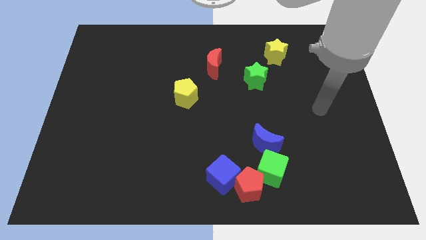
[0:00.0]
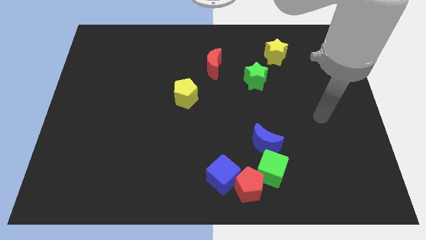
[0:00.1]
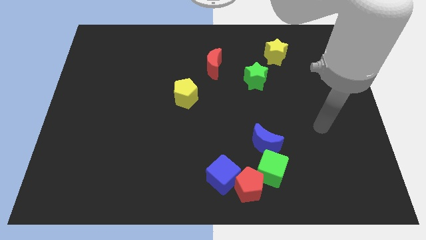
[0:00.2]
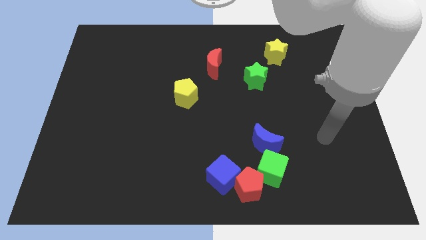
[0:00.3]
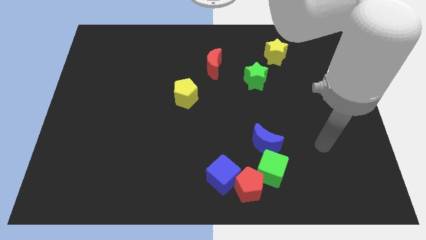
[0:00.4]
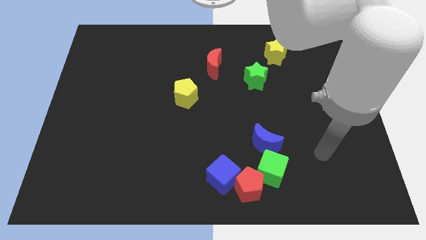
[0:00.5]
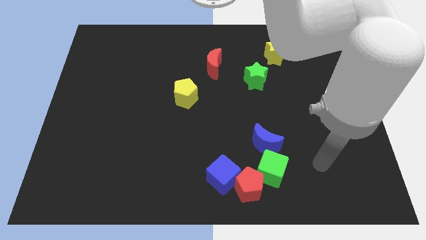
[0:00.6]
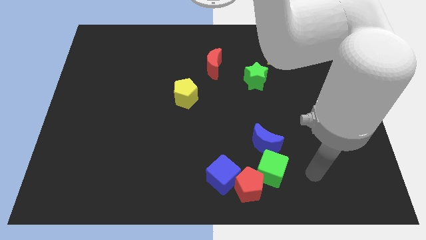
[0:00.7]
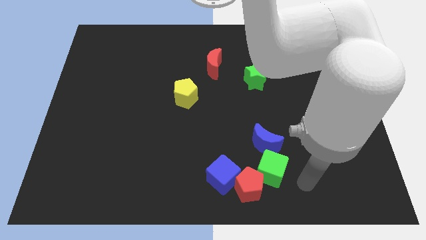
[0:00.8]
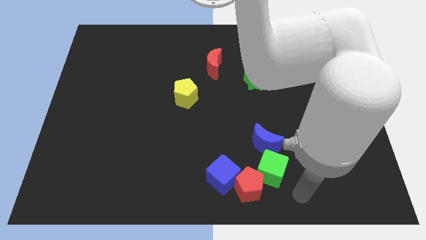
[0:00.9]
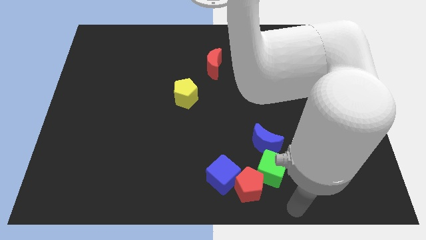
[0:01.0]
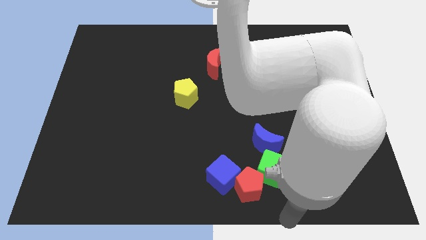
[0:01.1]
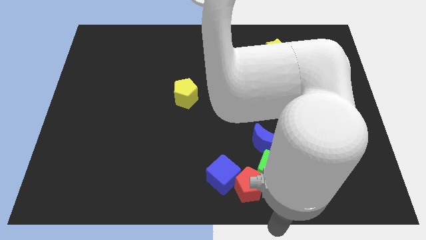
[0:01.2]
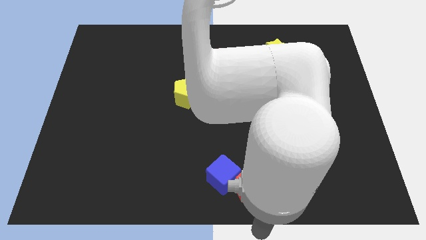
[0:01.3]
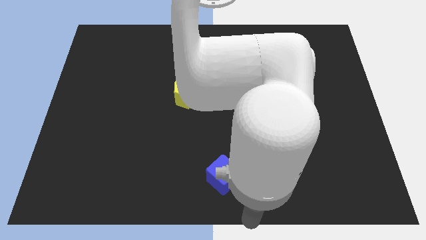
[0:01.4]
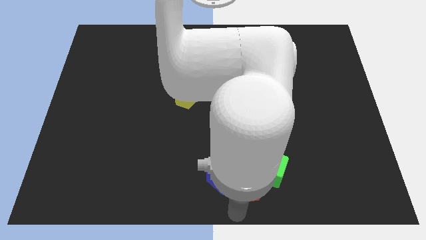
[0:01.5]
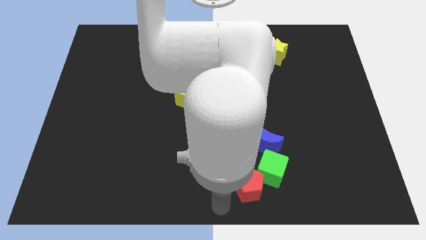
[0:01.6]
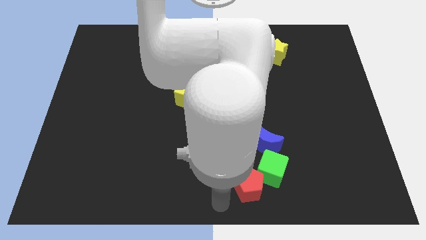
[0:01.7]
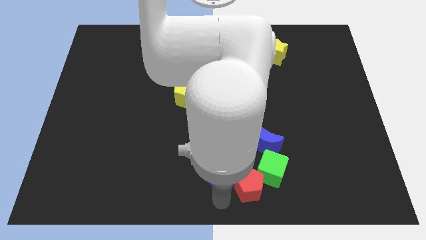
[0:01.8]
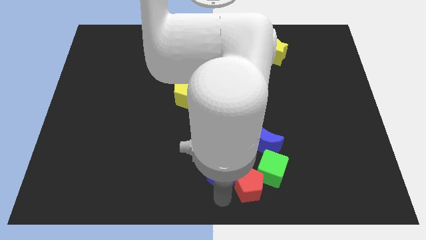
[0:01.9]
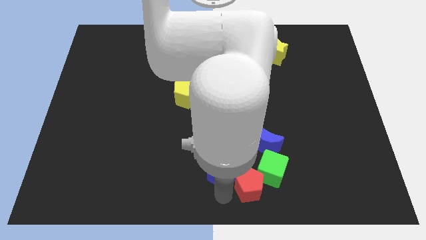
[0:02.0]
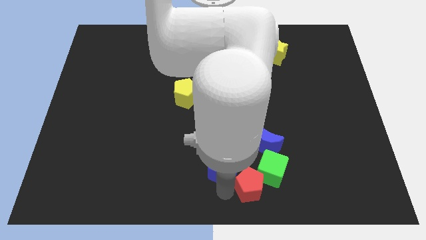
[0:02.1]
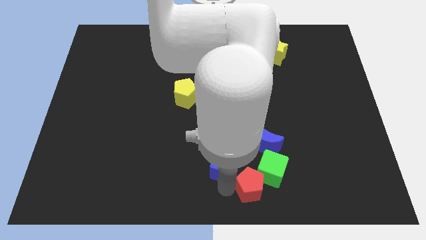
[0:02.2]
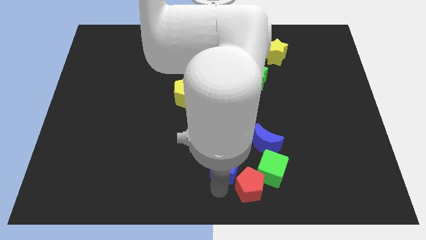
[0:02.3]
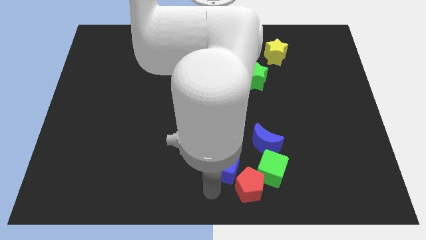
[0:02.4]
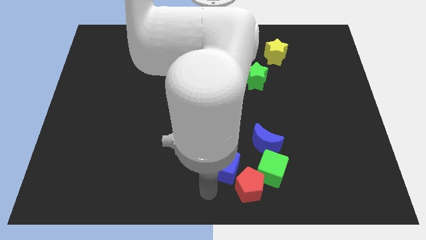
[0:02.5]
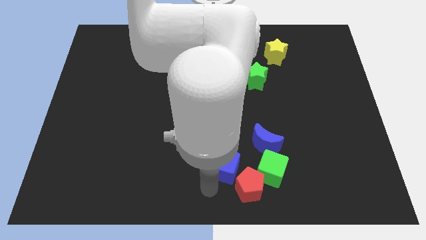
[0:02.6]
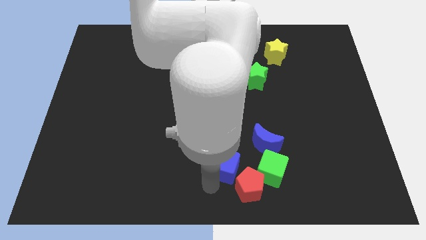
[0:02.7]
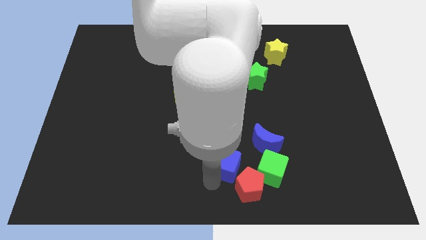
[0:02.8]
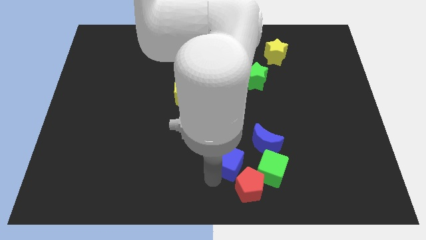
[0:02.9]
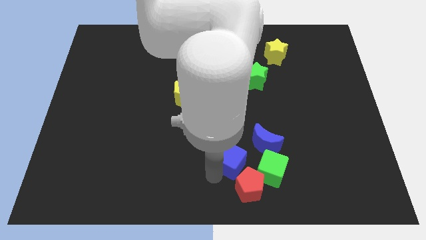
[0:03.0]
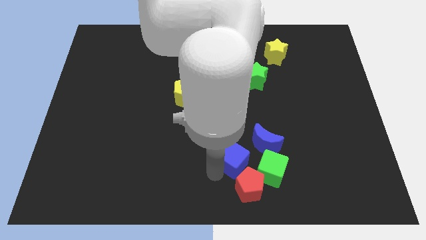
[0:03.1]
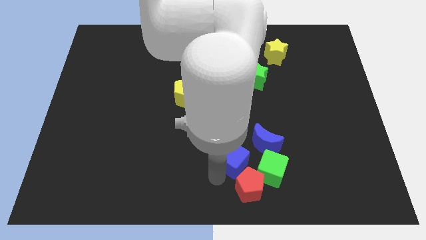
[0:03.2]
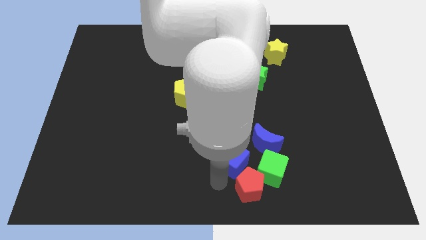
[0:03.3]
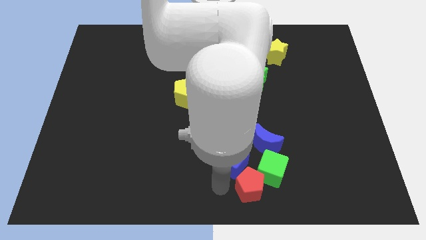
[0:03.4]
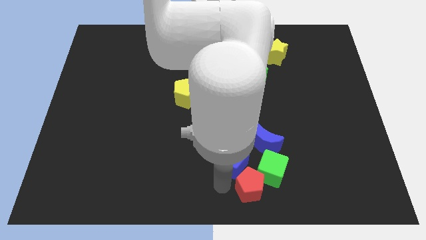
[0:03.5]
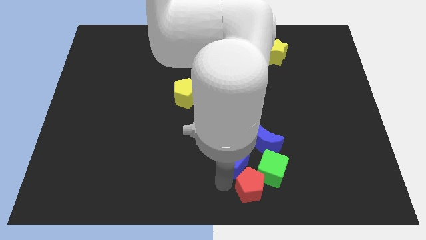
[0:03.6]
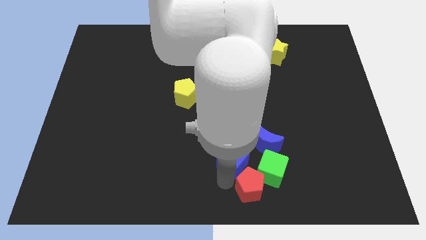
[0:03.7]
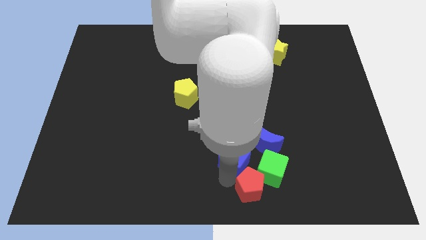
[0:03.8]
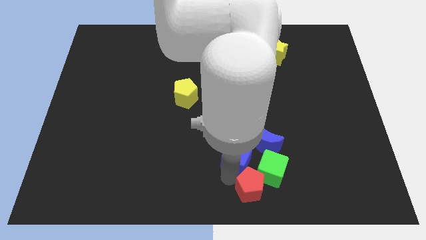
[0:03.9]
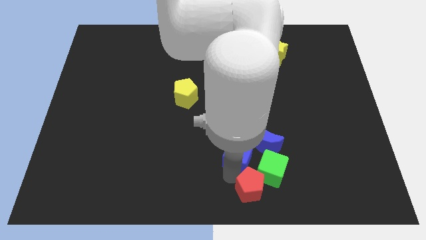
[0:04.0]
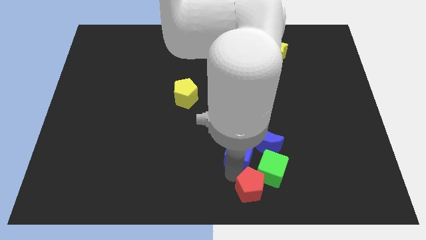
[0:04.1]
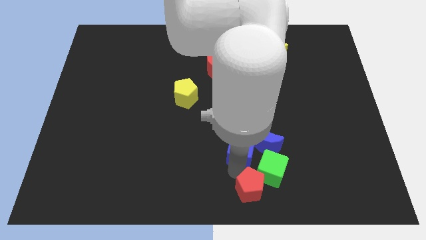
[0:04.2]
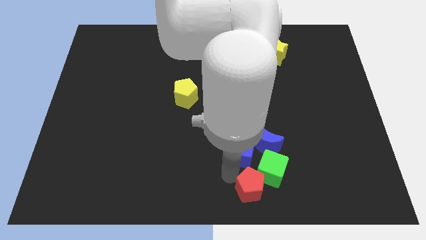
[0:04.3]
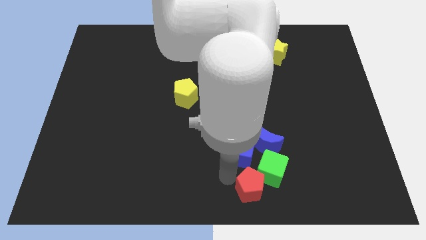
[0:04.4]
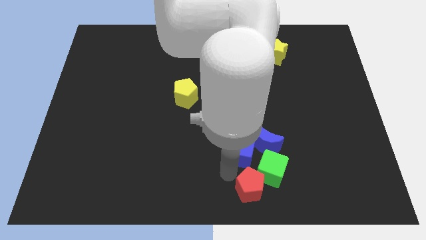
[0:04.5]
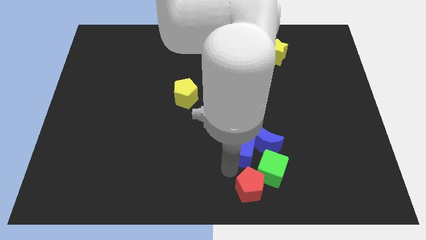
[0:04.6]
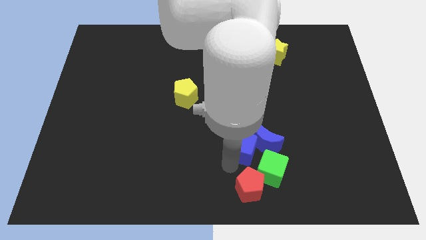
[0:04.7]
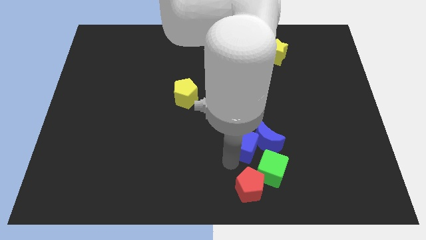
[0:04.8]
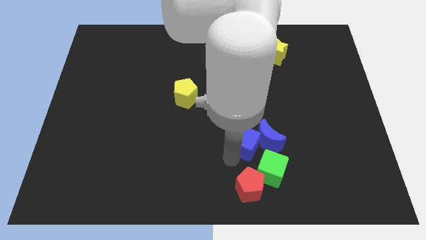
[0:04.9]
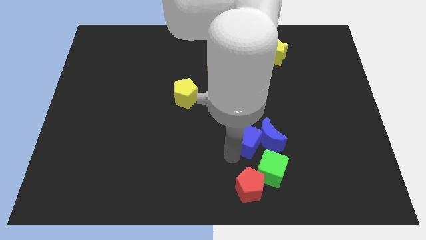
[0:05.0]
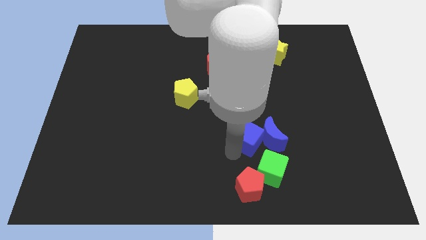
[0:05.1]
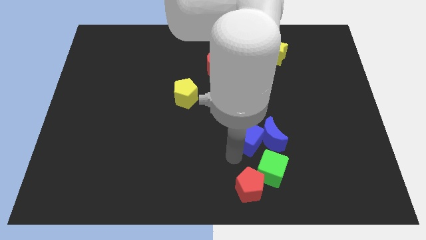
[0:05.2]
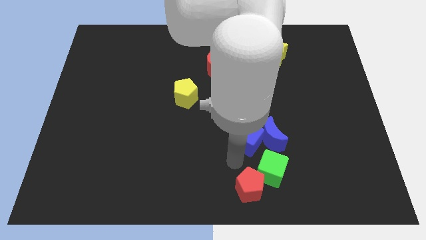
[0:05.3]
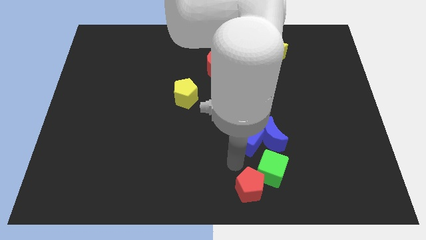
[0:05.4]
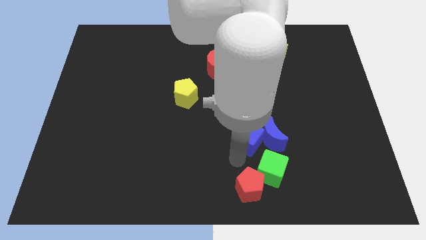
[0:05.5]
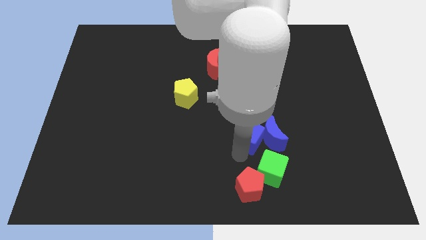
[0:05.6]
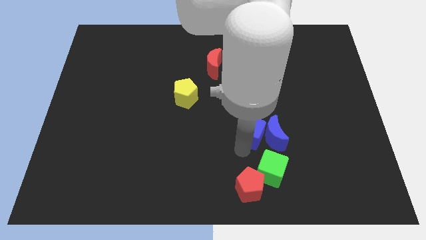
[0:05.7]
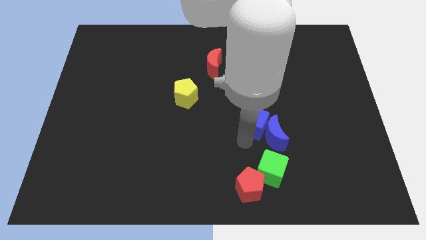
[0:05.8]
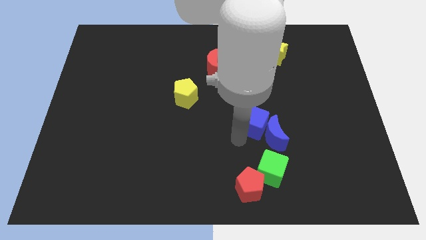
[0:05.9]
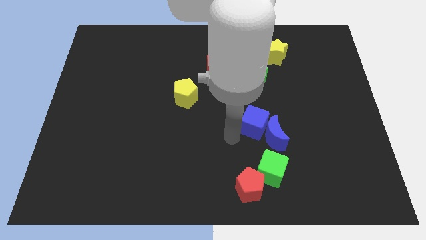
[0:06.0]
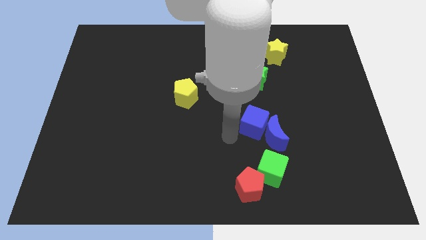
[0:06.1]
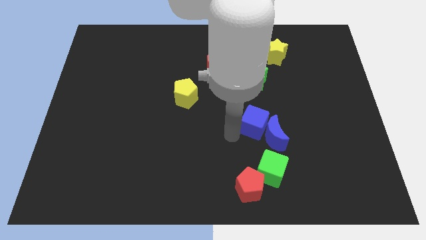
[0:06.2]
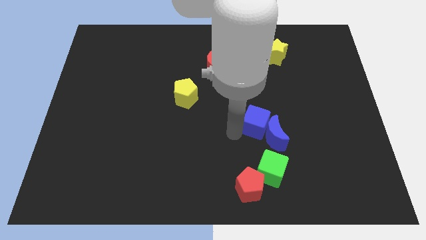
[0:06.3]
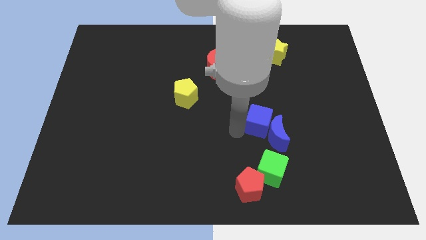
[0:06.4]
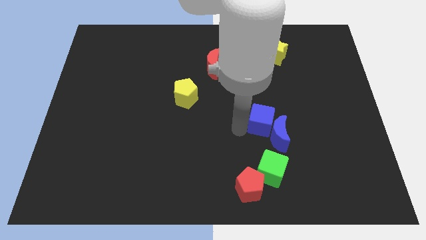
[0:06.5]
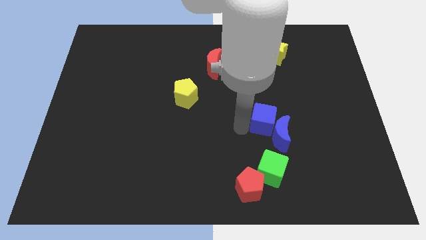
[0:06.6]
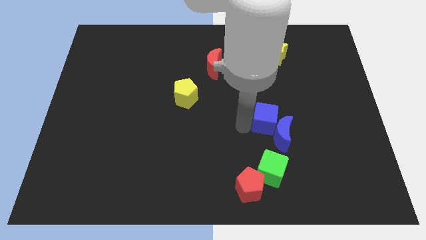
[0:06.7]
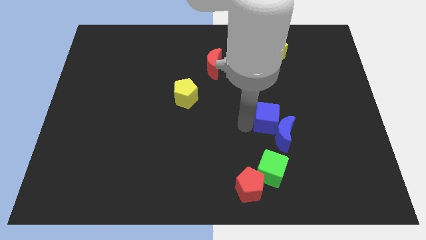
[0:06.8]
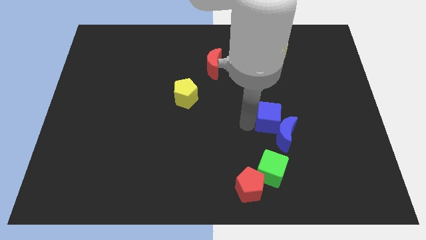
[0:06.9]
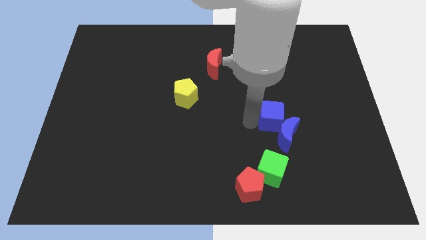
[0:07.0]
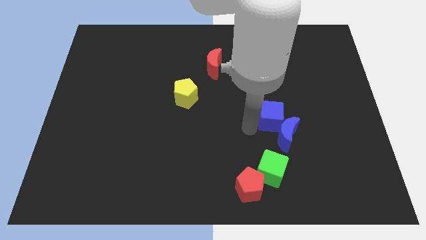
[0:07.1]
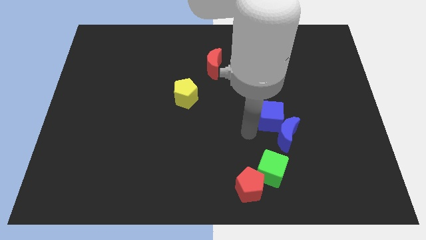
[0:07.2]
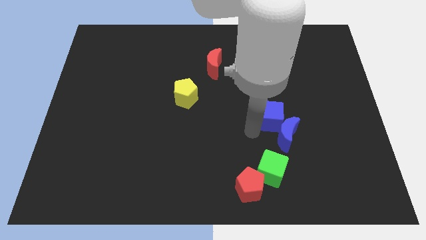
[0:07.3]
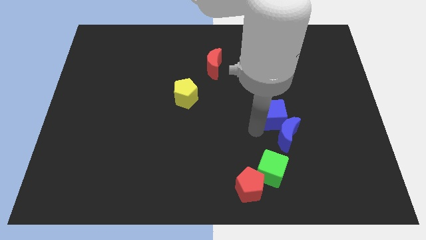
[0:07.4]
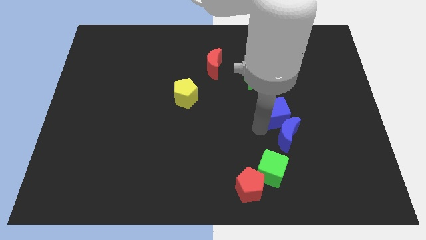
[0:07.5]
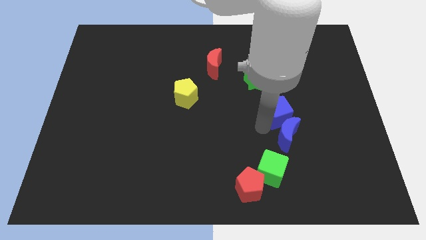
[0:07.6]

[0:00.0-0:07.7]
push the blue cube up and to the right diagonally
